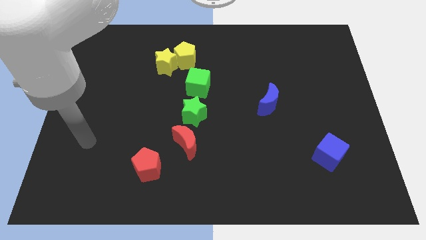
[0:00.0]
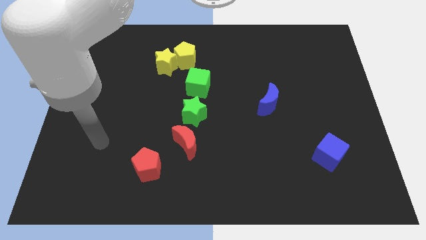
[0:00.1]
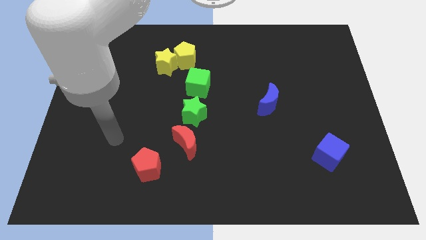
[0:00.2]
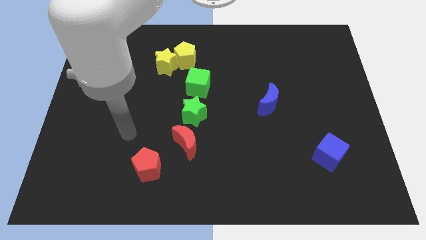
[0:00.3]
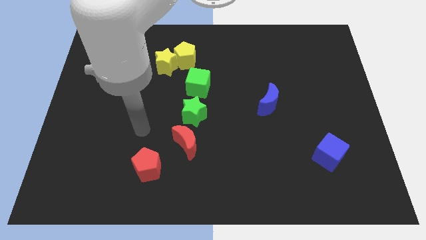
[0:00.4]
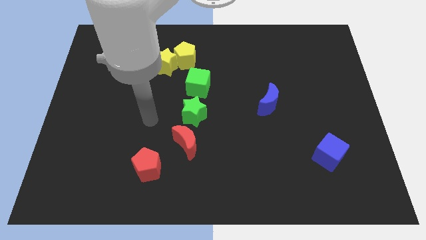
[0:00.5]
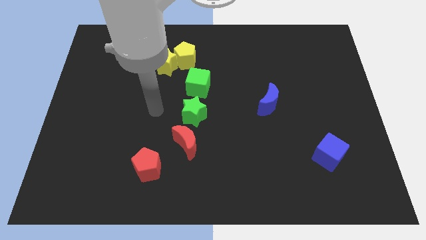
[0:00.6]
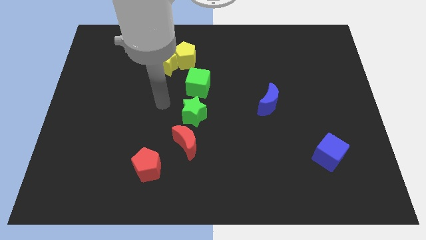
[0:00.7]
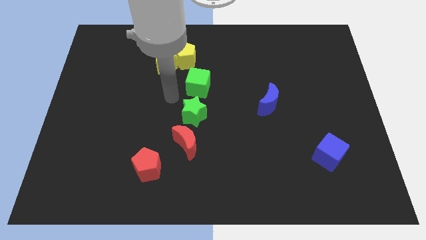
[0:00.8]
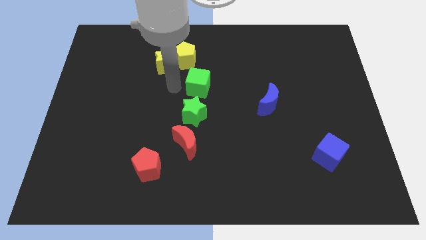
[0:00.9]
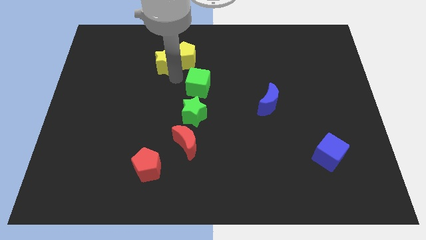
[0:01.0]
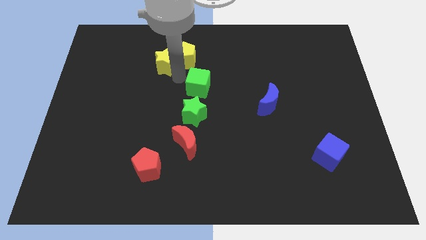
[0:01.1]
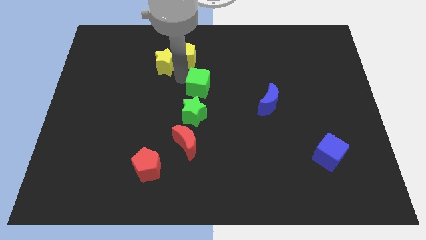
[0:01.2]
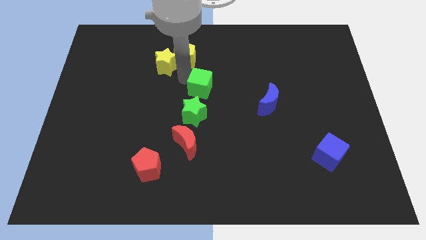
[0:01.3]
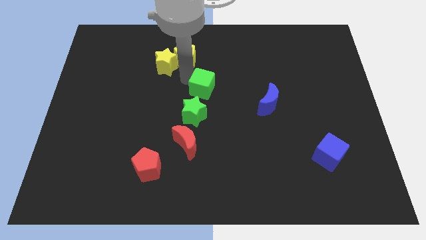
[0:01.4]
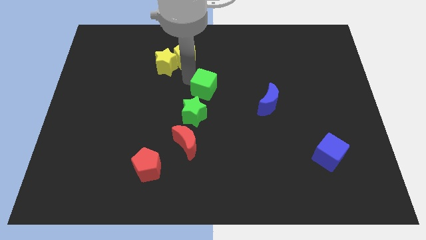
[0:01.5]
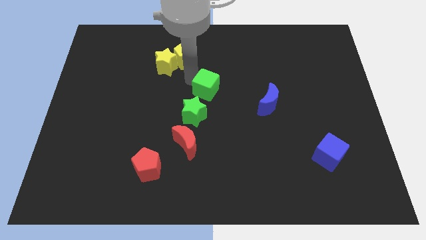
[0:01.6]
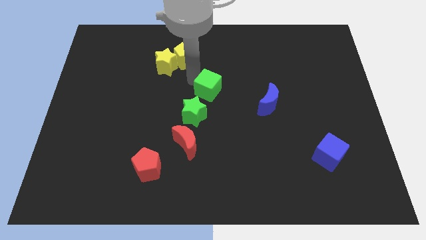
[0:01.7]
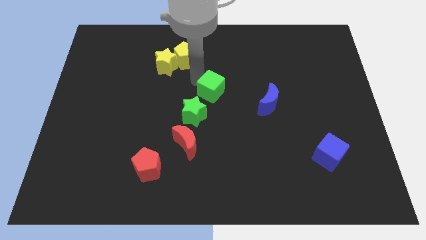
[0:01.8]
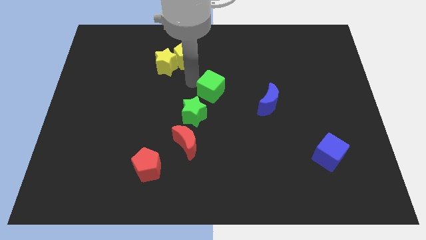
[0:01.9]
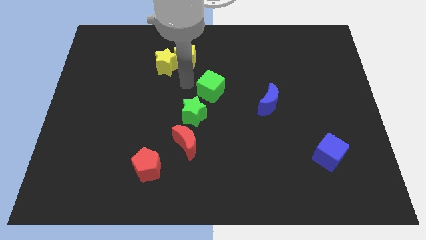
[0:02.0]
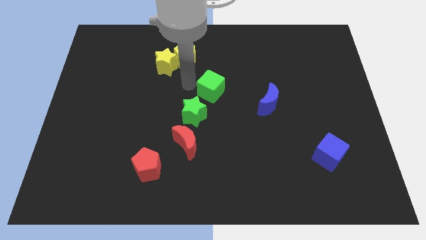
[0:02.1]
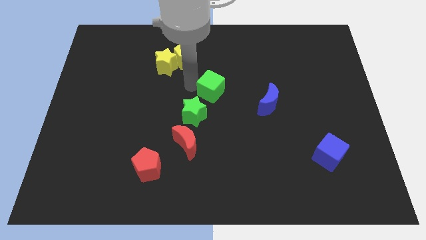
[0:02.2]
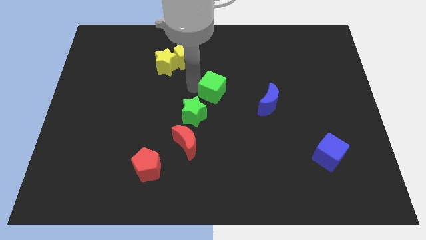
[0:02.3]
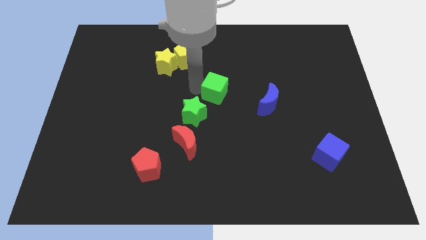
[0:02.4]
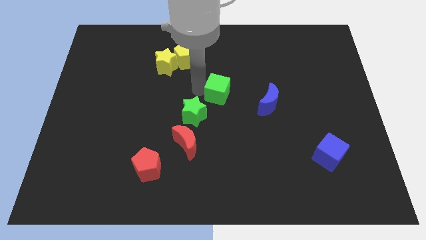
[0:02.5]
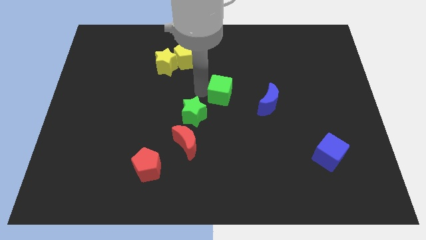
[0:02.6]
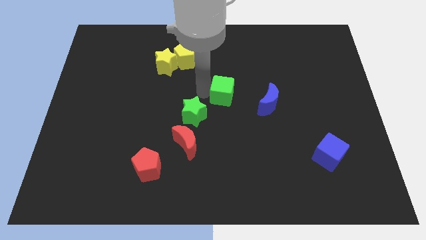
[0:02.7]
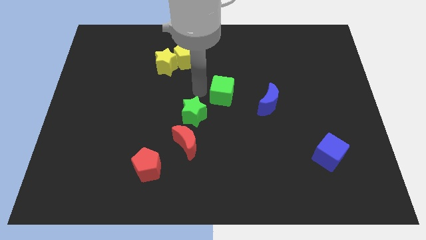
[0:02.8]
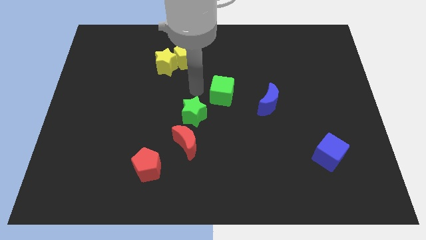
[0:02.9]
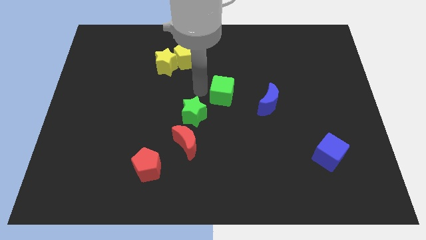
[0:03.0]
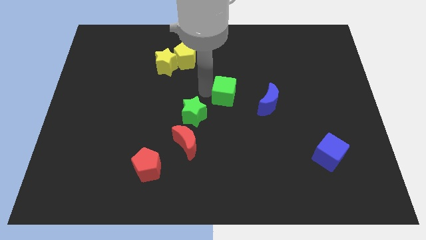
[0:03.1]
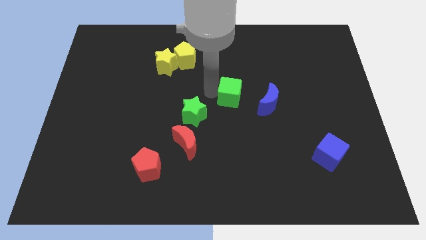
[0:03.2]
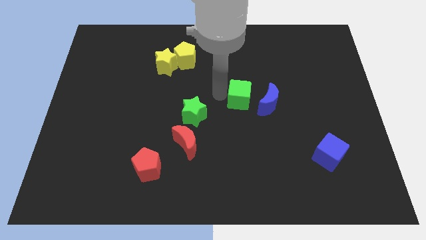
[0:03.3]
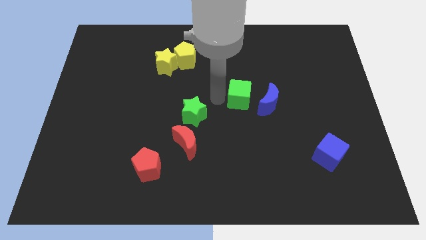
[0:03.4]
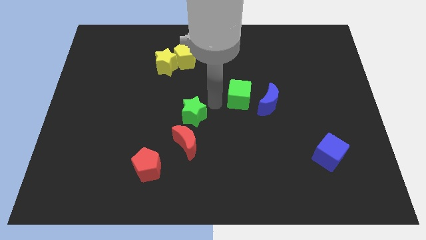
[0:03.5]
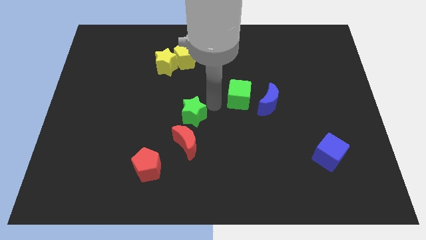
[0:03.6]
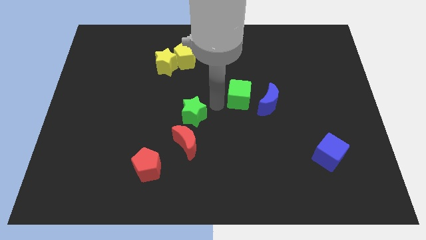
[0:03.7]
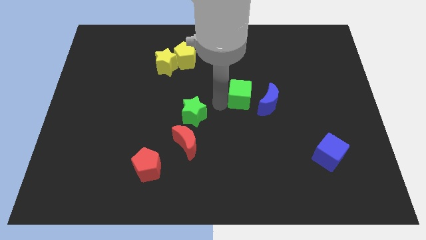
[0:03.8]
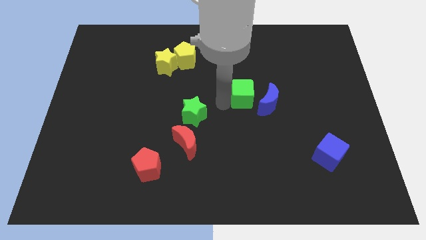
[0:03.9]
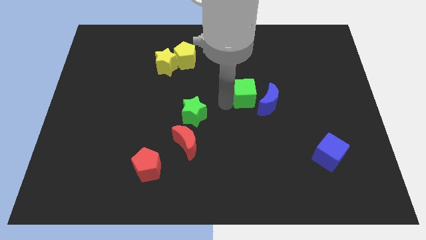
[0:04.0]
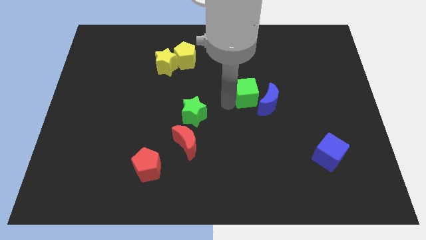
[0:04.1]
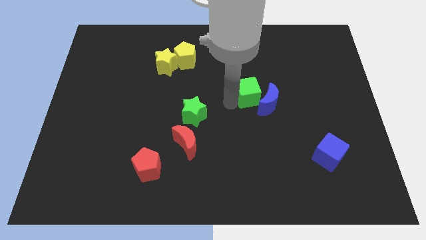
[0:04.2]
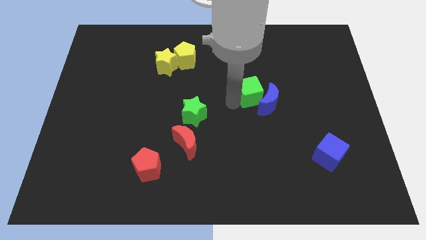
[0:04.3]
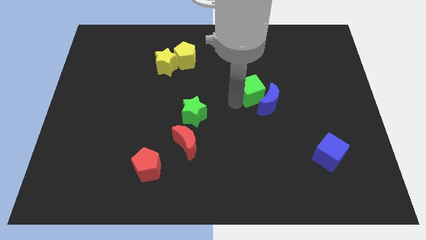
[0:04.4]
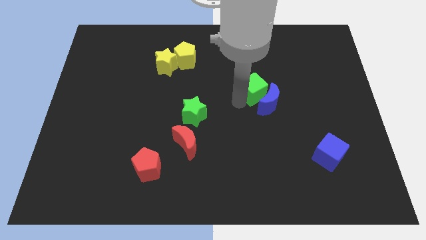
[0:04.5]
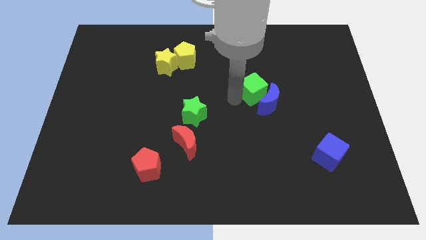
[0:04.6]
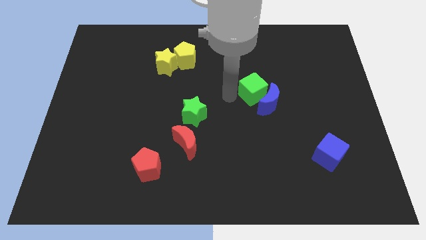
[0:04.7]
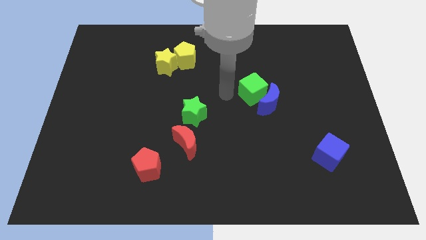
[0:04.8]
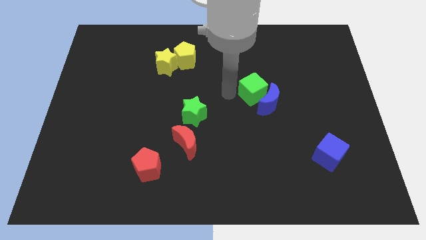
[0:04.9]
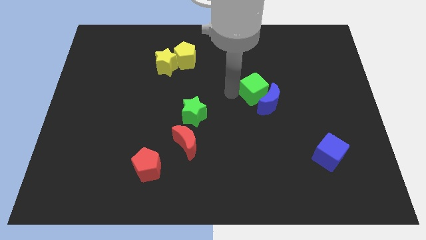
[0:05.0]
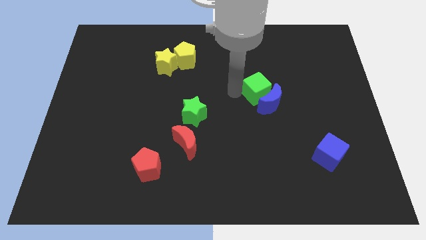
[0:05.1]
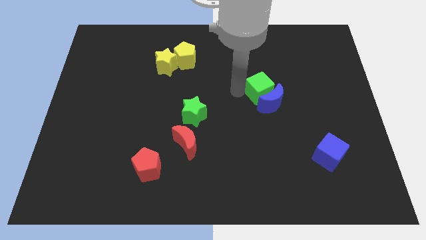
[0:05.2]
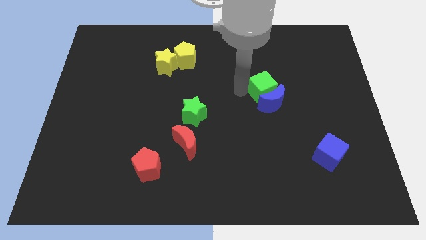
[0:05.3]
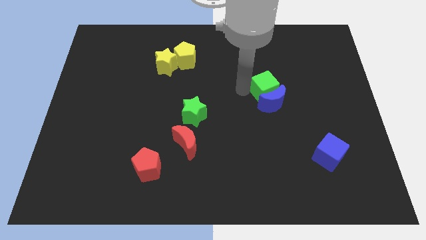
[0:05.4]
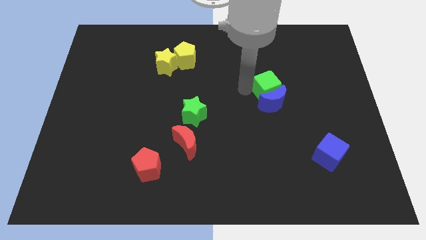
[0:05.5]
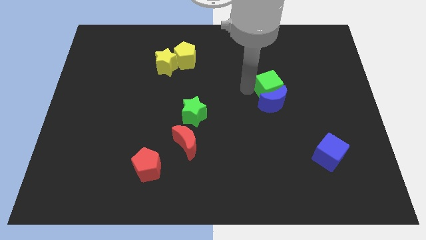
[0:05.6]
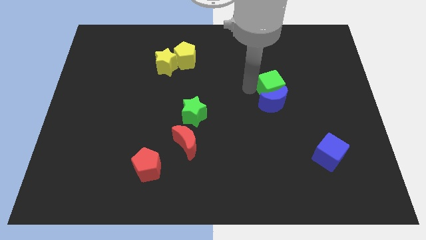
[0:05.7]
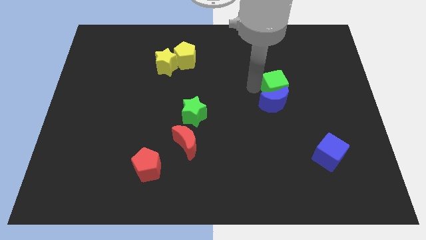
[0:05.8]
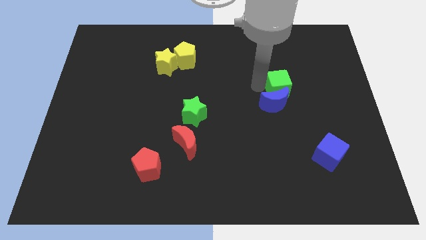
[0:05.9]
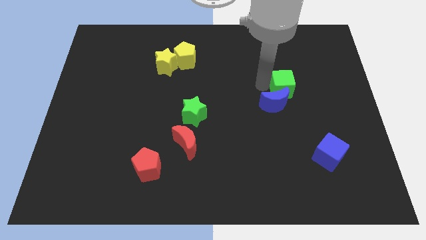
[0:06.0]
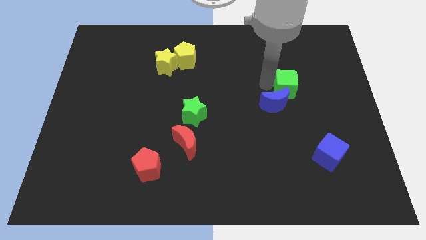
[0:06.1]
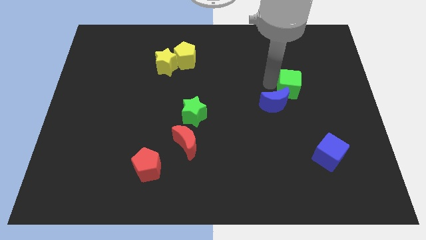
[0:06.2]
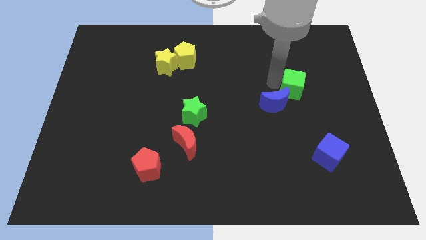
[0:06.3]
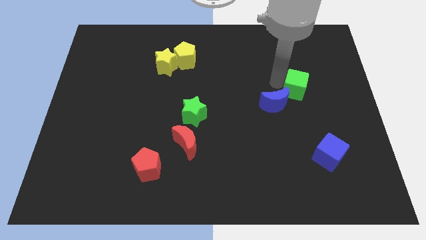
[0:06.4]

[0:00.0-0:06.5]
move the green cube to the right of the blue moon

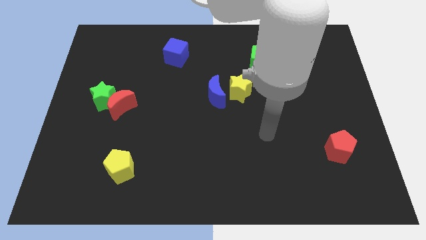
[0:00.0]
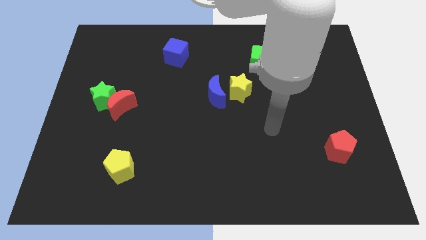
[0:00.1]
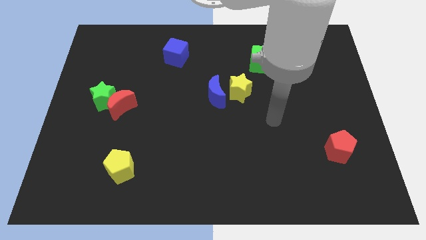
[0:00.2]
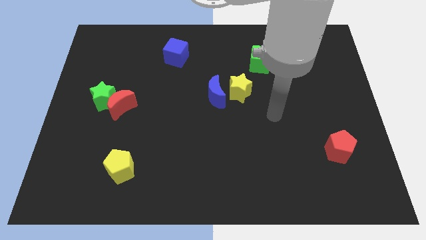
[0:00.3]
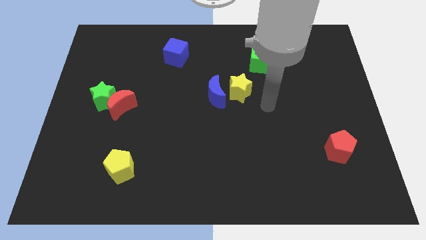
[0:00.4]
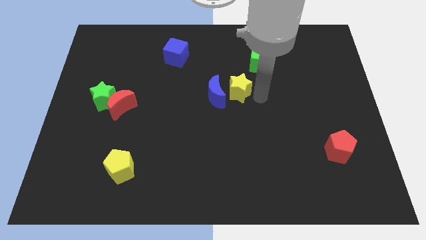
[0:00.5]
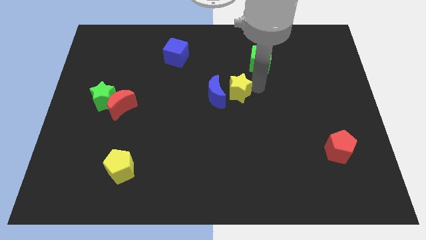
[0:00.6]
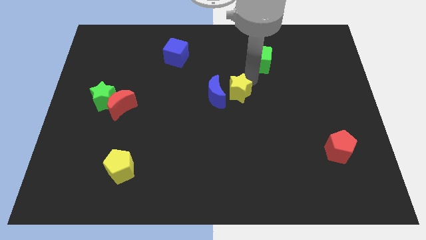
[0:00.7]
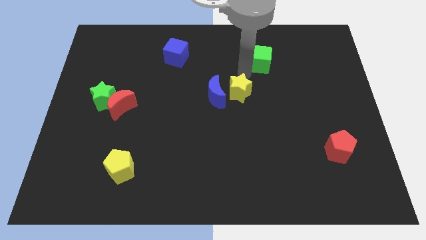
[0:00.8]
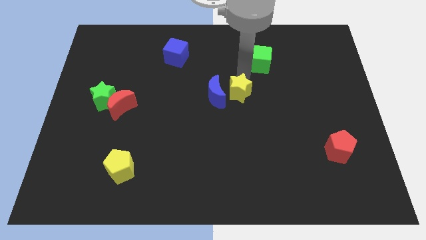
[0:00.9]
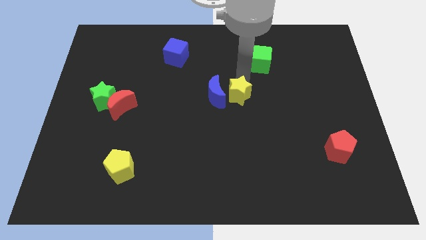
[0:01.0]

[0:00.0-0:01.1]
slide the yellow star diagonally down and to the right of the blue moon
